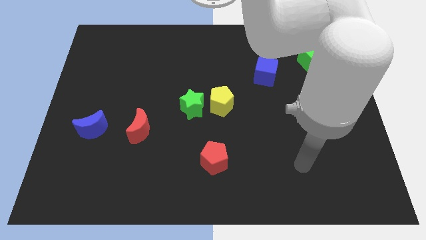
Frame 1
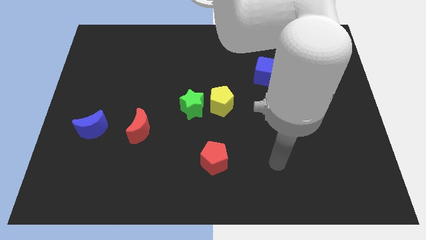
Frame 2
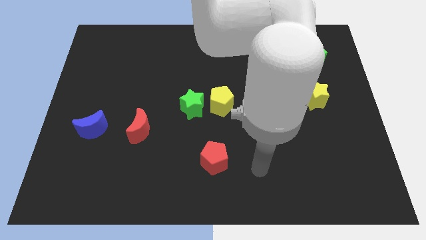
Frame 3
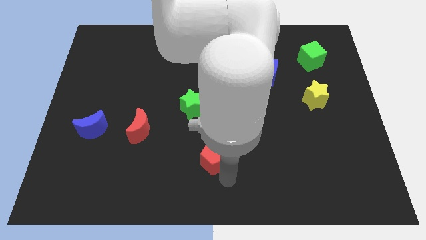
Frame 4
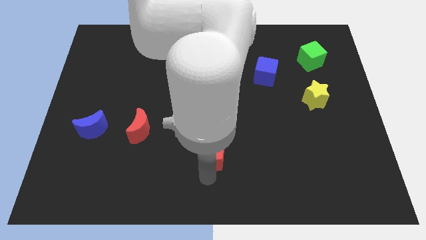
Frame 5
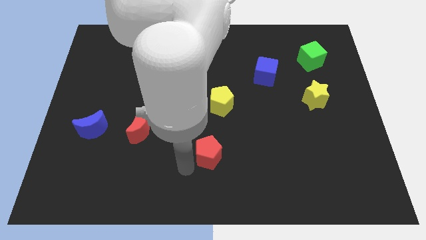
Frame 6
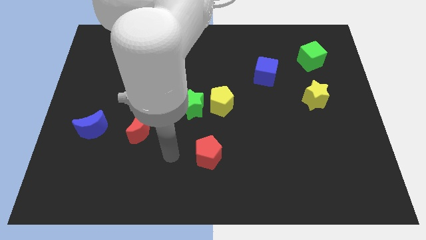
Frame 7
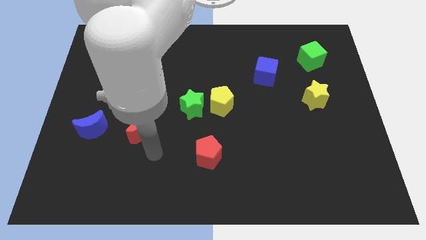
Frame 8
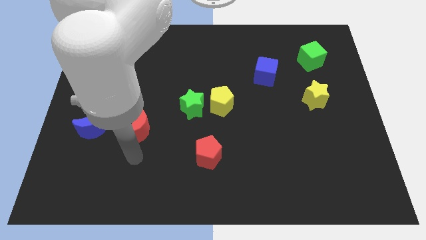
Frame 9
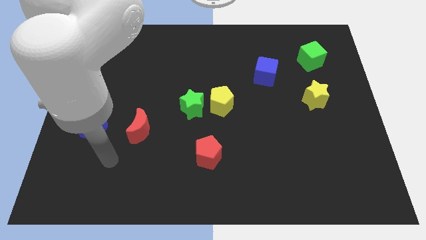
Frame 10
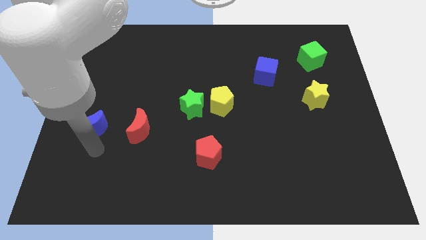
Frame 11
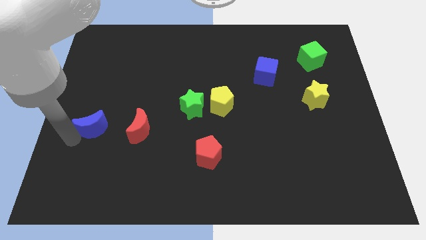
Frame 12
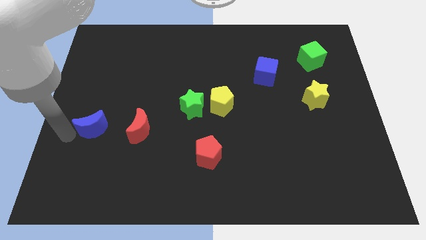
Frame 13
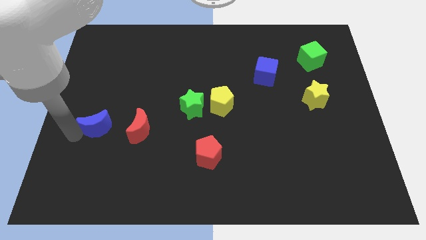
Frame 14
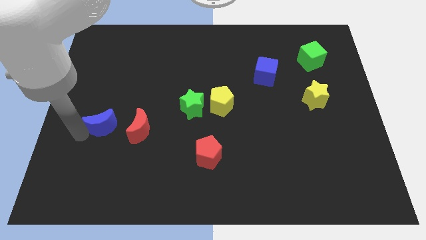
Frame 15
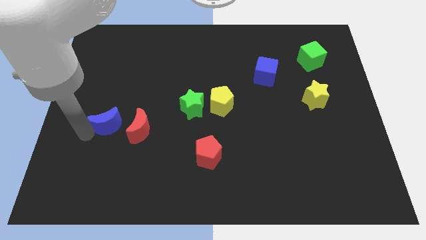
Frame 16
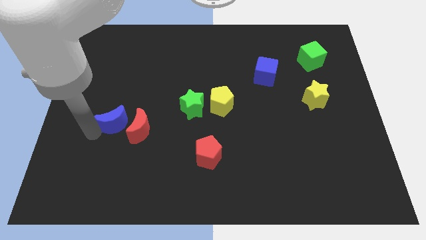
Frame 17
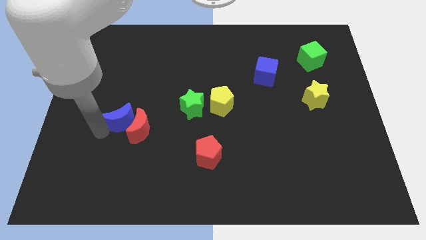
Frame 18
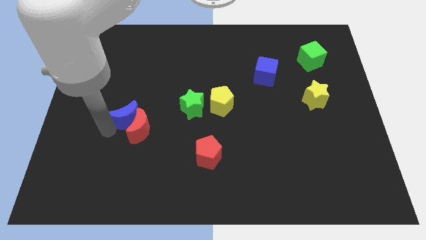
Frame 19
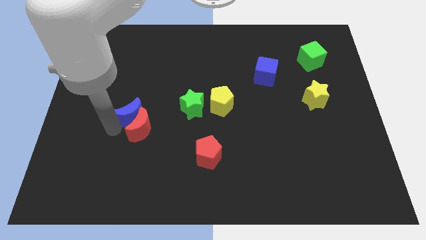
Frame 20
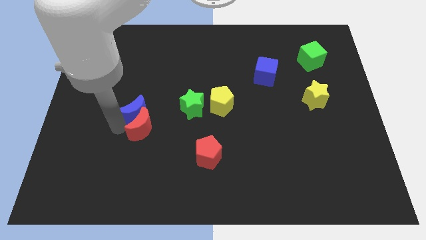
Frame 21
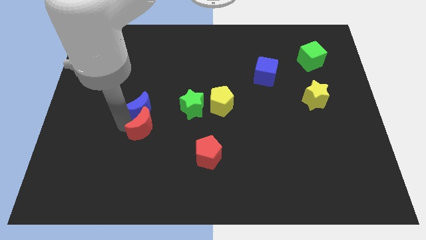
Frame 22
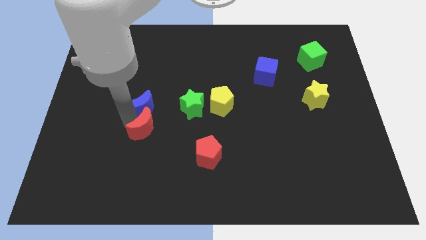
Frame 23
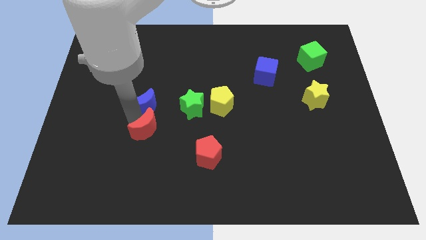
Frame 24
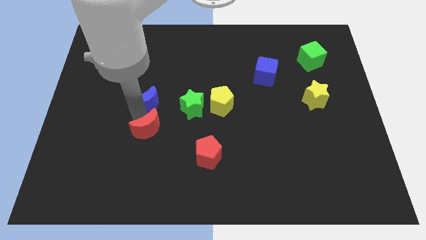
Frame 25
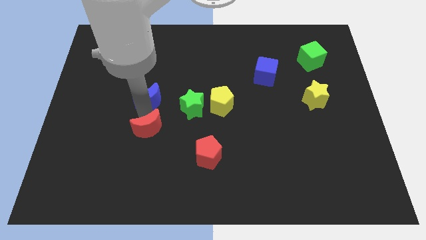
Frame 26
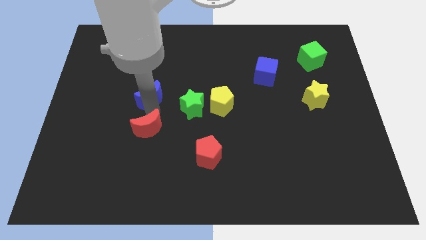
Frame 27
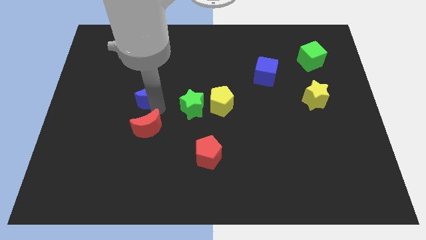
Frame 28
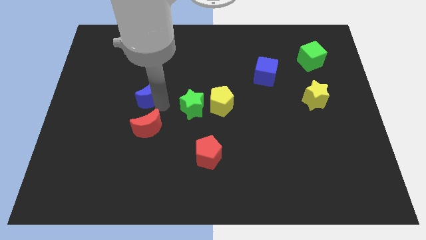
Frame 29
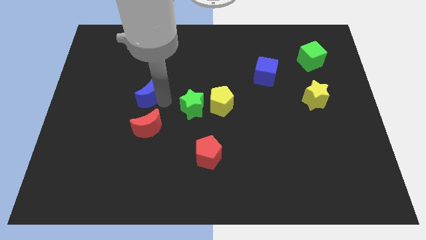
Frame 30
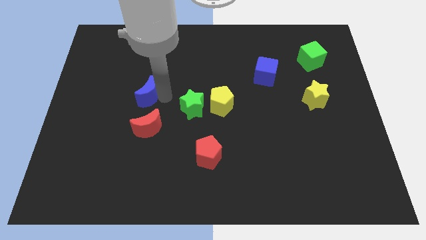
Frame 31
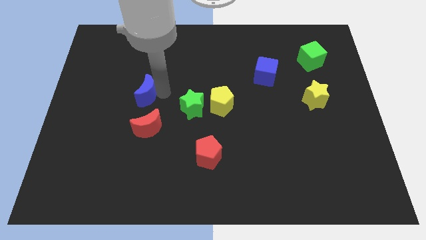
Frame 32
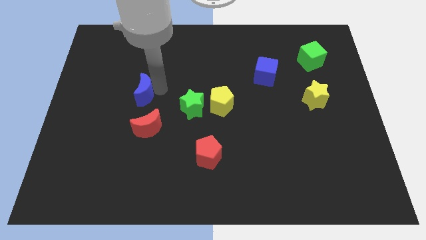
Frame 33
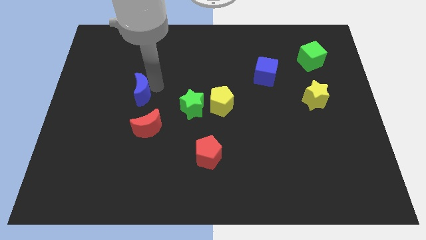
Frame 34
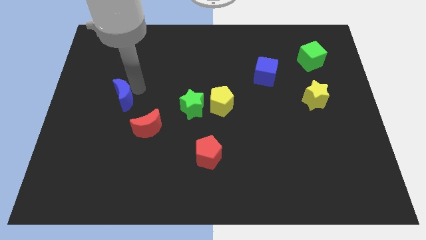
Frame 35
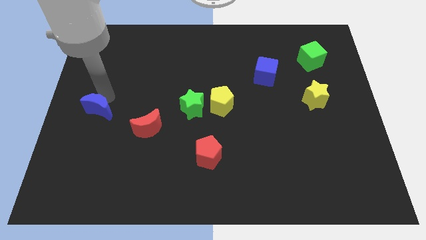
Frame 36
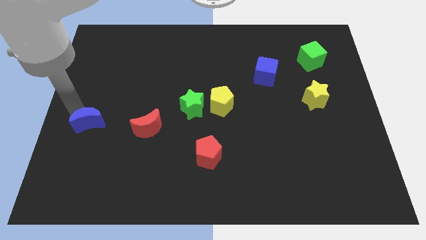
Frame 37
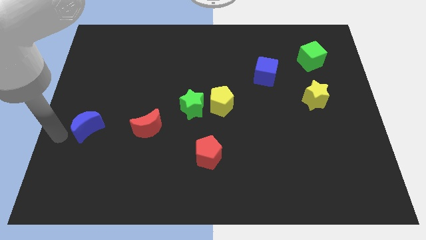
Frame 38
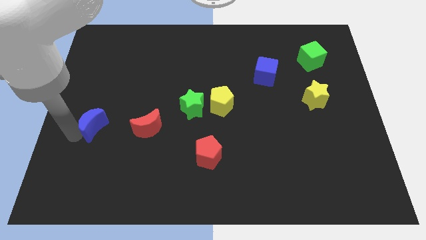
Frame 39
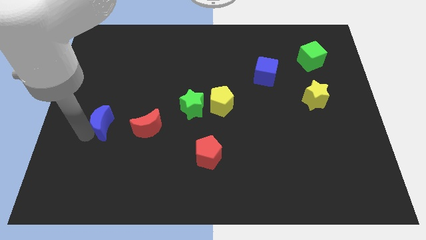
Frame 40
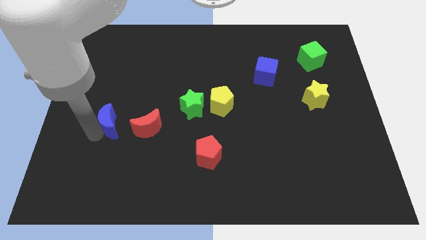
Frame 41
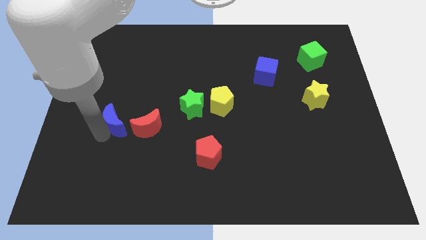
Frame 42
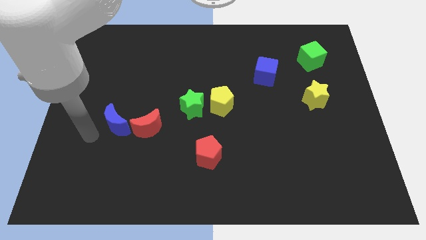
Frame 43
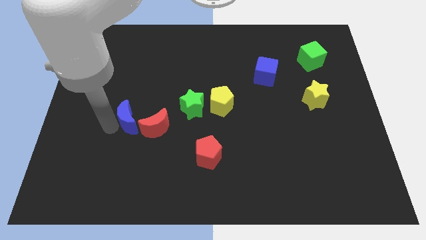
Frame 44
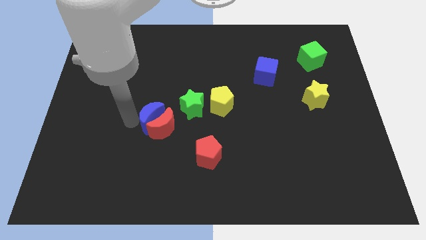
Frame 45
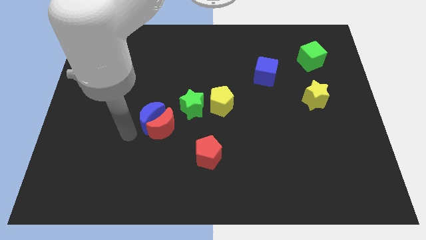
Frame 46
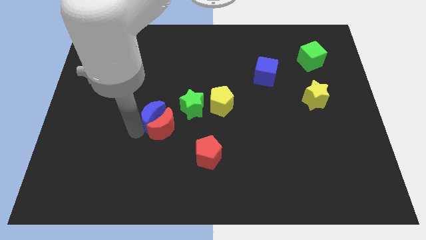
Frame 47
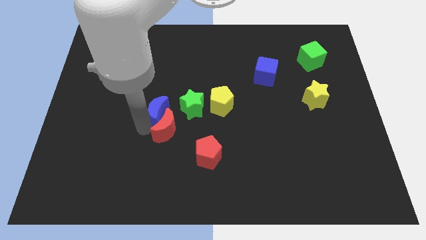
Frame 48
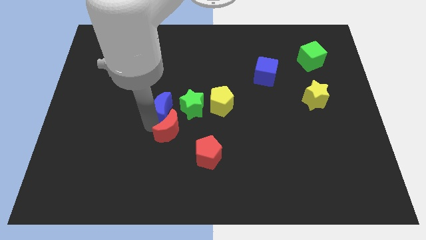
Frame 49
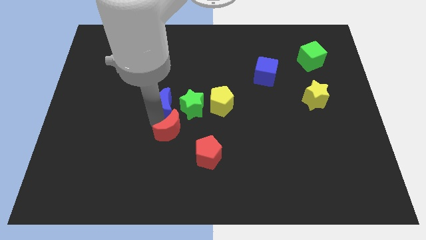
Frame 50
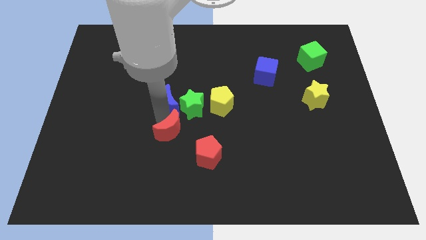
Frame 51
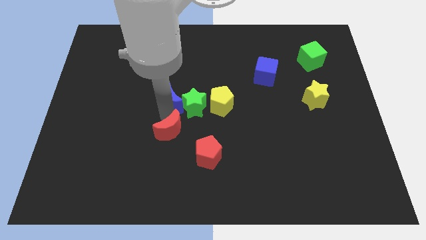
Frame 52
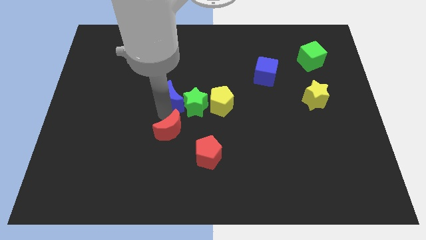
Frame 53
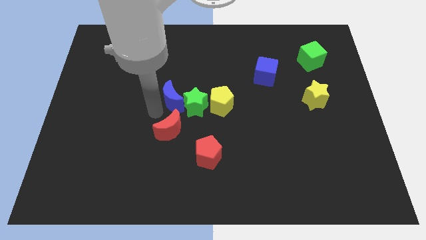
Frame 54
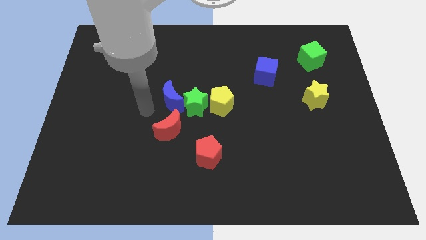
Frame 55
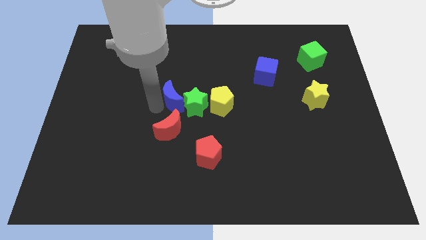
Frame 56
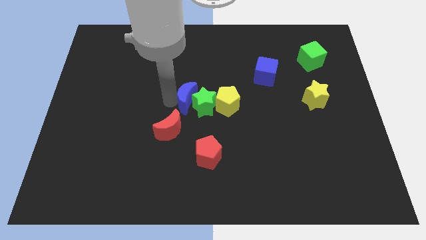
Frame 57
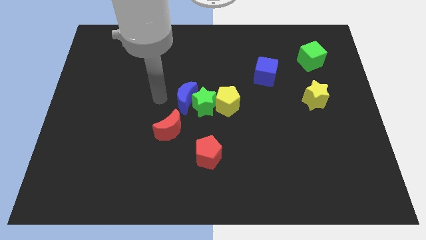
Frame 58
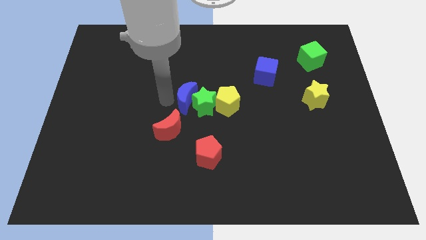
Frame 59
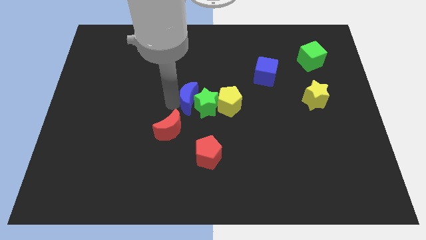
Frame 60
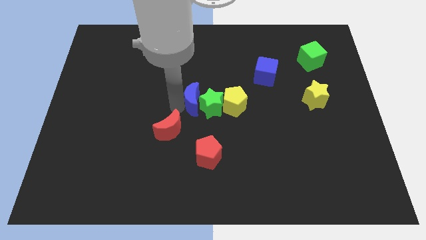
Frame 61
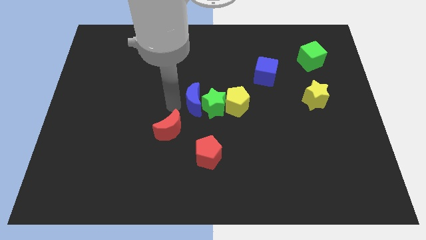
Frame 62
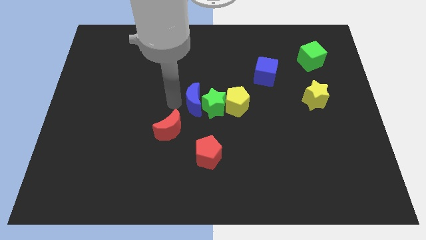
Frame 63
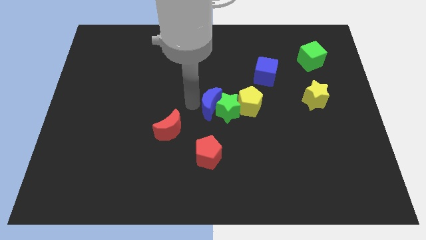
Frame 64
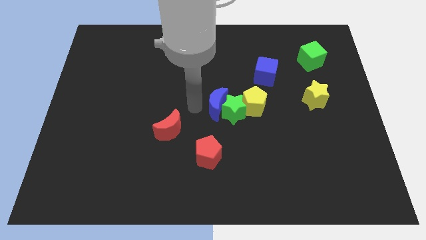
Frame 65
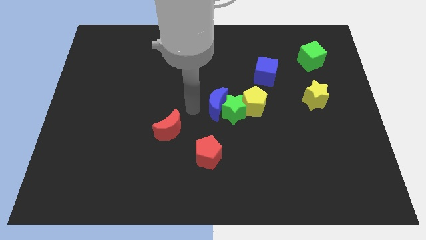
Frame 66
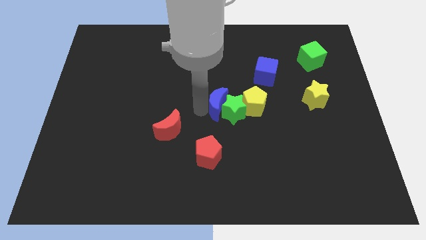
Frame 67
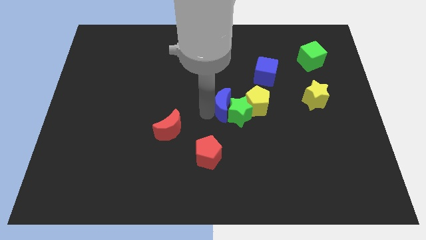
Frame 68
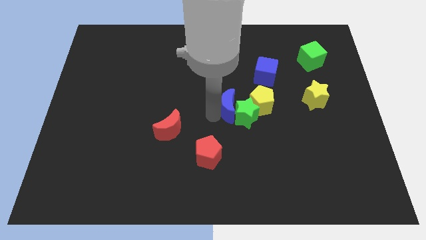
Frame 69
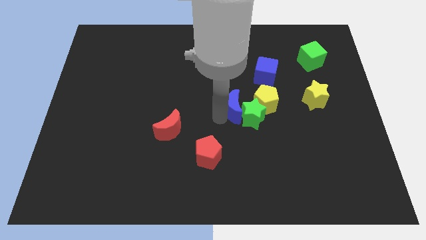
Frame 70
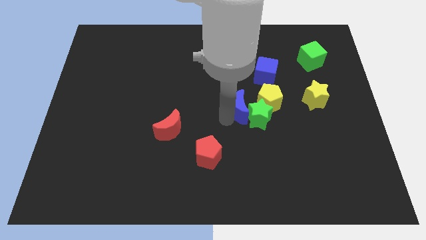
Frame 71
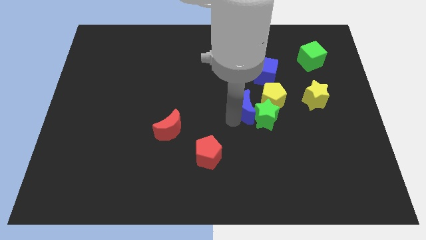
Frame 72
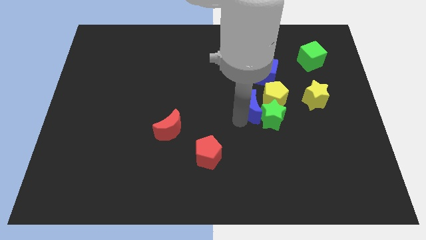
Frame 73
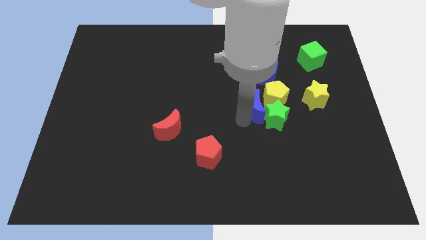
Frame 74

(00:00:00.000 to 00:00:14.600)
put the blue moon towards the yellow pentagon
